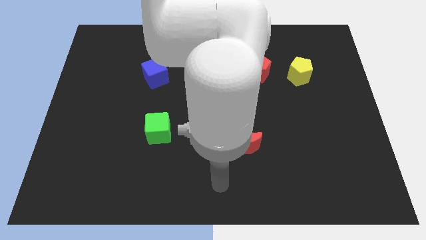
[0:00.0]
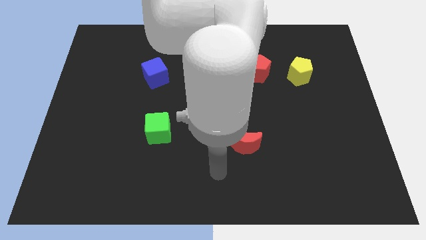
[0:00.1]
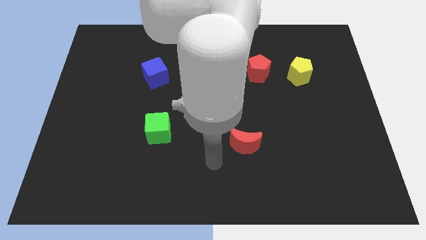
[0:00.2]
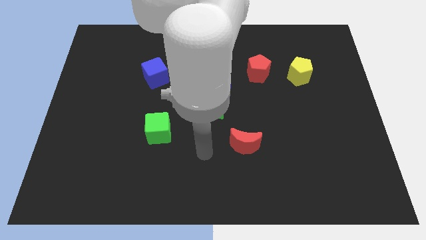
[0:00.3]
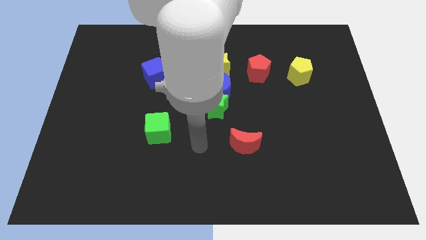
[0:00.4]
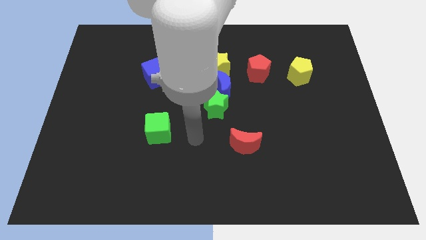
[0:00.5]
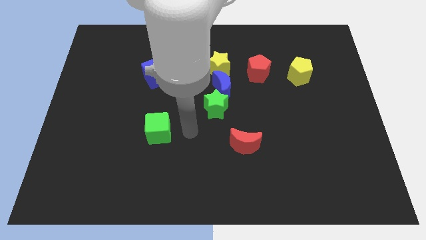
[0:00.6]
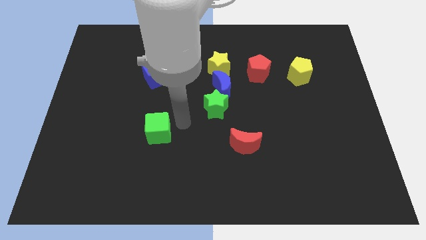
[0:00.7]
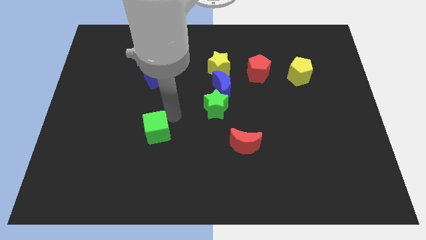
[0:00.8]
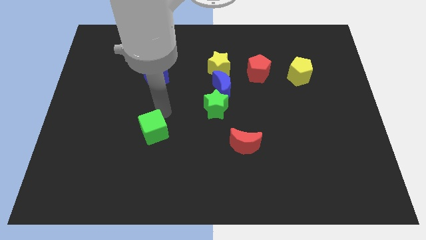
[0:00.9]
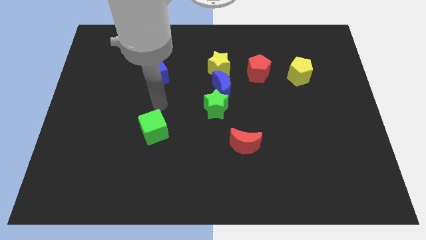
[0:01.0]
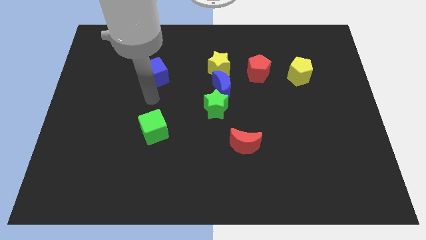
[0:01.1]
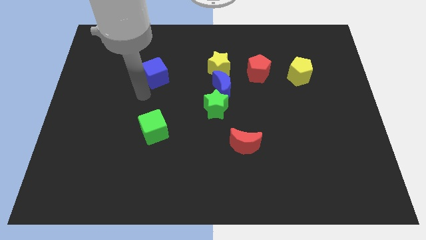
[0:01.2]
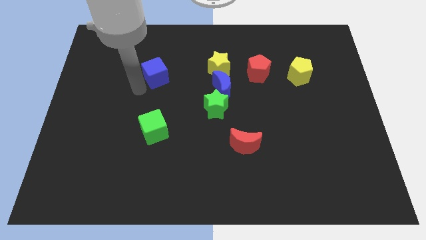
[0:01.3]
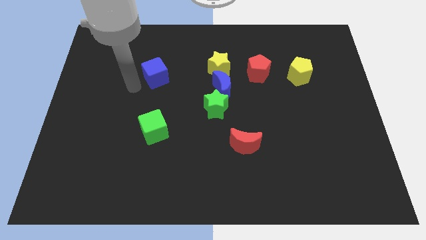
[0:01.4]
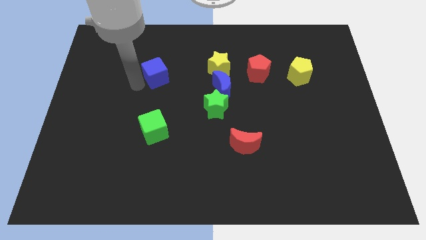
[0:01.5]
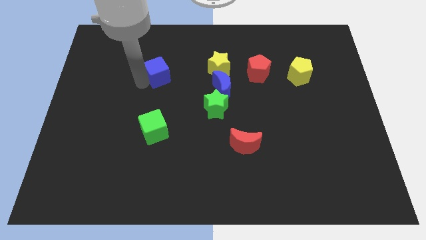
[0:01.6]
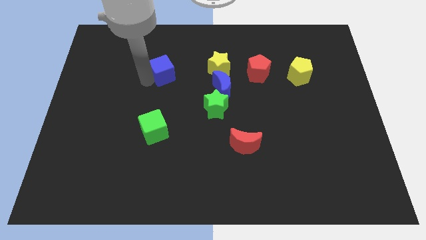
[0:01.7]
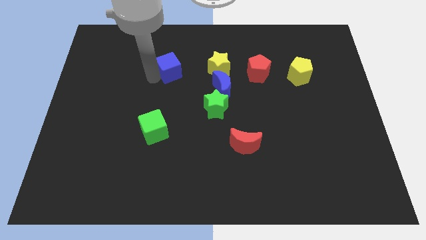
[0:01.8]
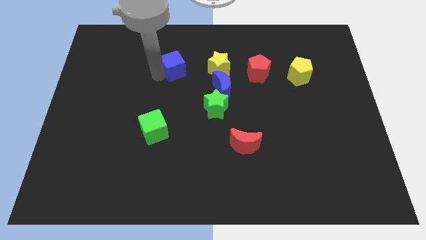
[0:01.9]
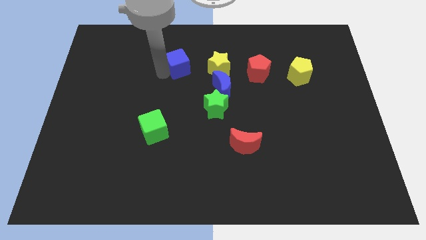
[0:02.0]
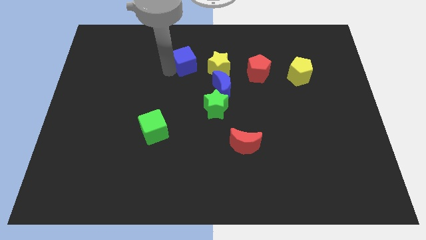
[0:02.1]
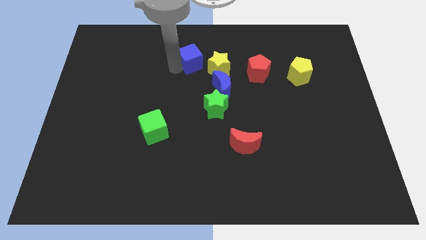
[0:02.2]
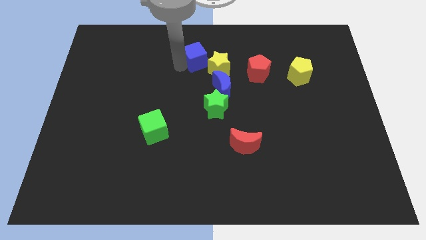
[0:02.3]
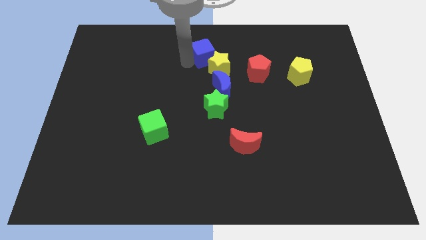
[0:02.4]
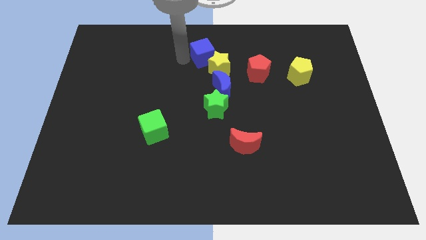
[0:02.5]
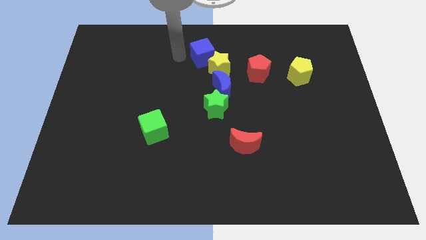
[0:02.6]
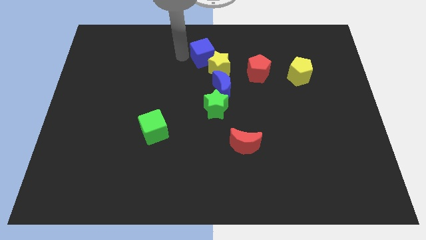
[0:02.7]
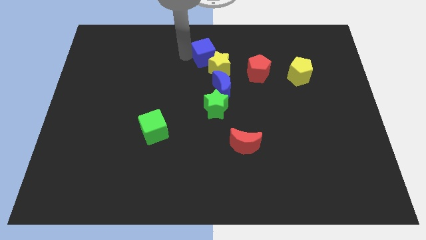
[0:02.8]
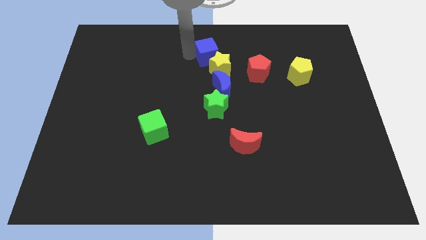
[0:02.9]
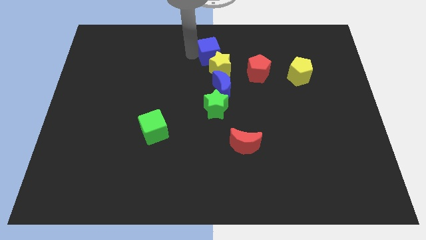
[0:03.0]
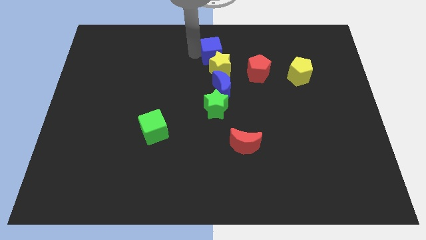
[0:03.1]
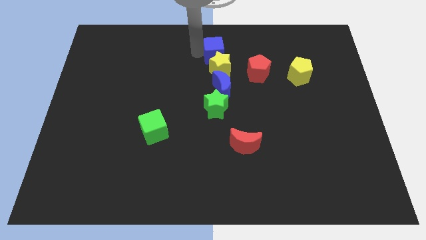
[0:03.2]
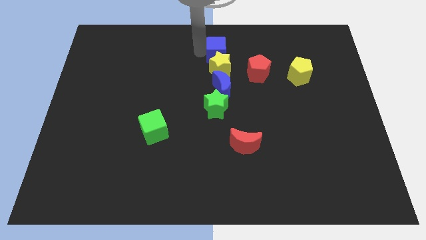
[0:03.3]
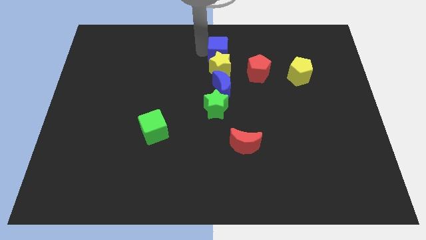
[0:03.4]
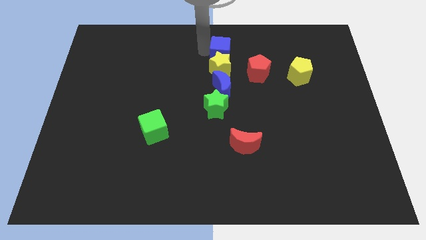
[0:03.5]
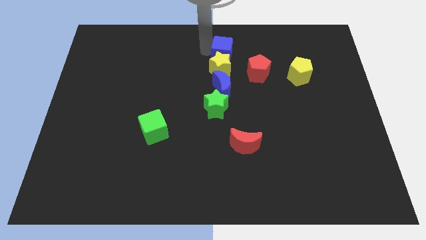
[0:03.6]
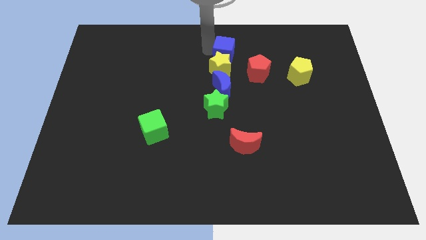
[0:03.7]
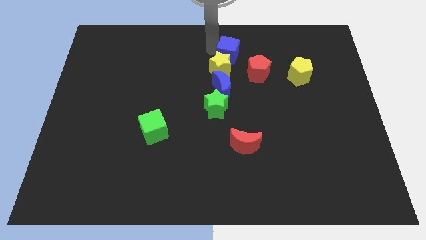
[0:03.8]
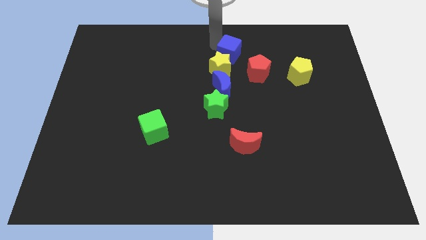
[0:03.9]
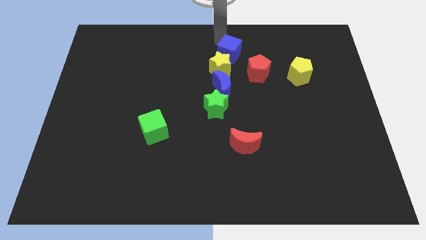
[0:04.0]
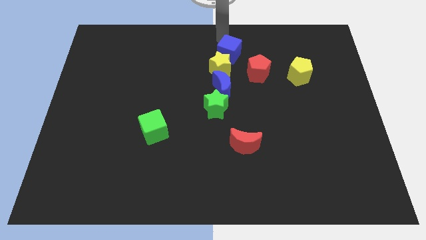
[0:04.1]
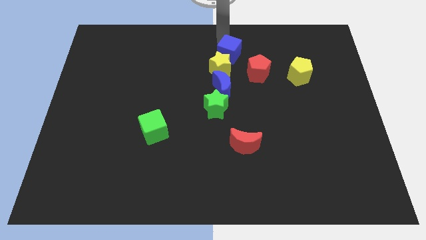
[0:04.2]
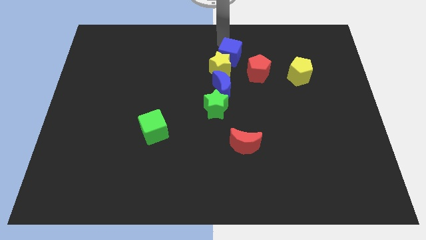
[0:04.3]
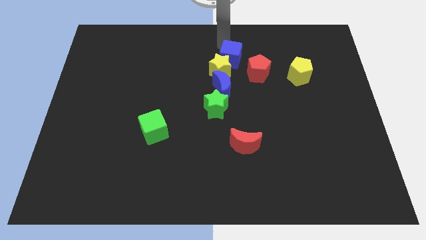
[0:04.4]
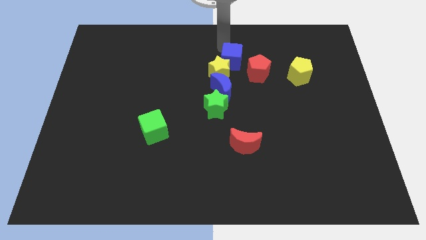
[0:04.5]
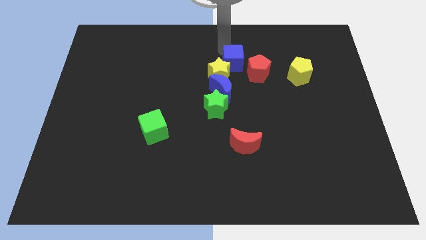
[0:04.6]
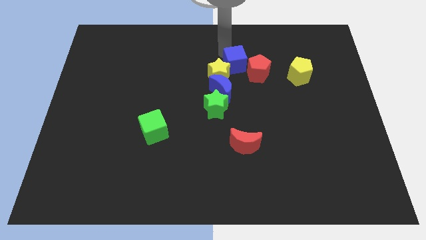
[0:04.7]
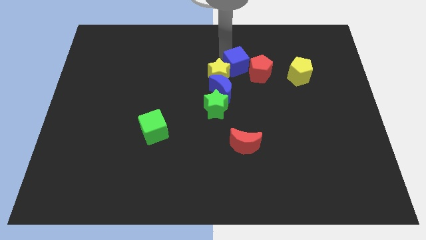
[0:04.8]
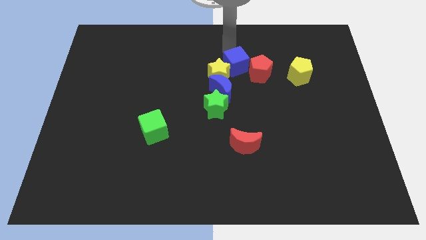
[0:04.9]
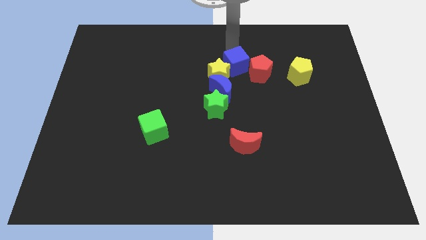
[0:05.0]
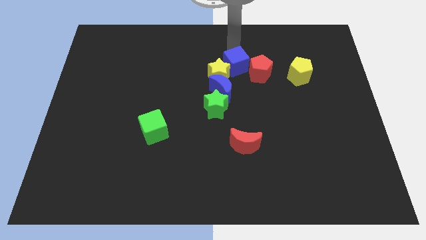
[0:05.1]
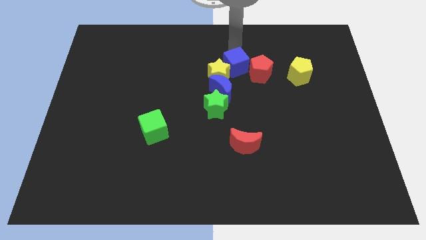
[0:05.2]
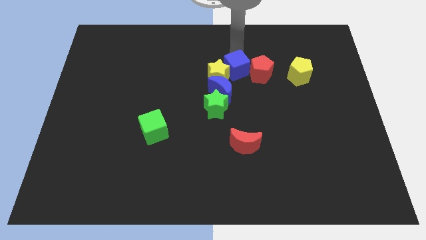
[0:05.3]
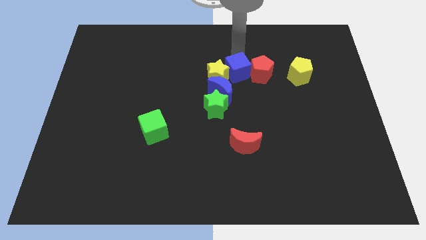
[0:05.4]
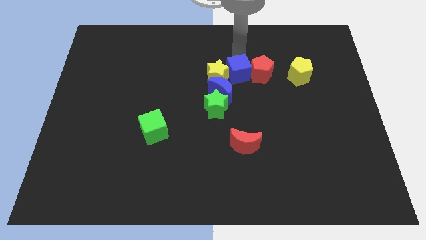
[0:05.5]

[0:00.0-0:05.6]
put the blue cube to the bottom right of the yellow star

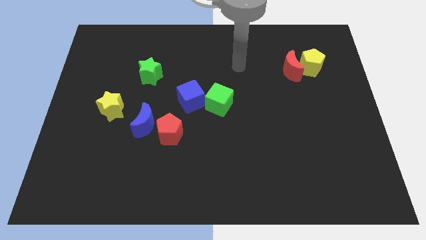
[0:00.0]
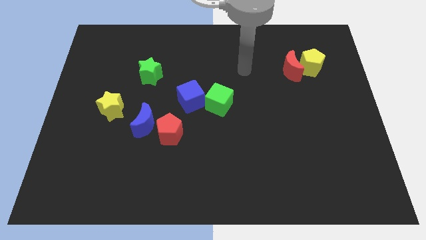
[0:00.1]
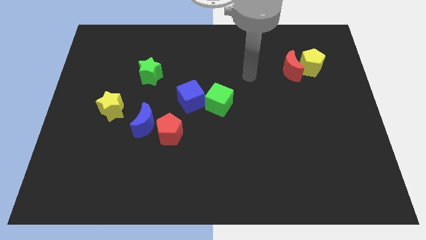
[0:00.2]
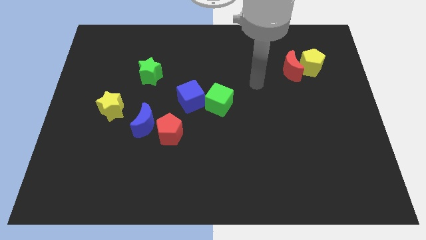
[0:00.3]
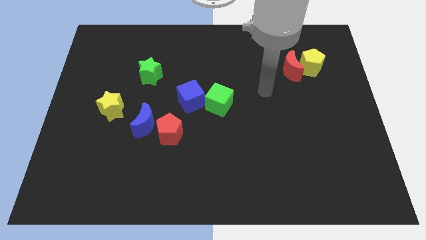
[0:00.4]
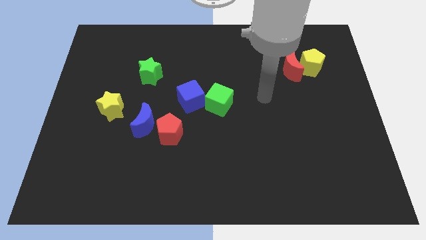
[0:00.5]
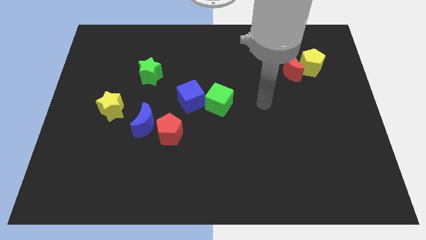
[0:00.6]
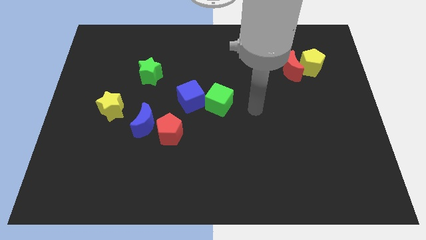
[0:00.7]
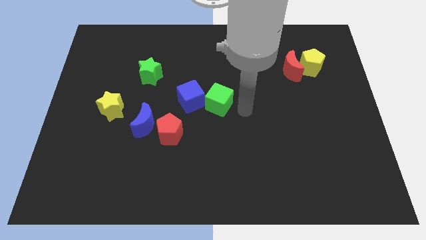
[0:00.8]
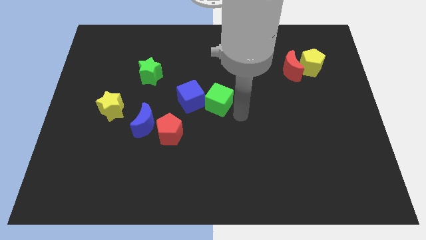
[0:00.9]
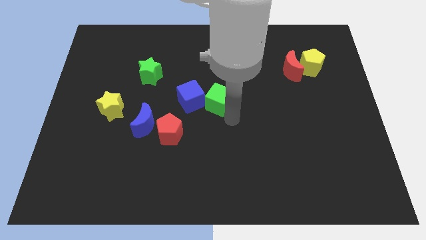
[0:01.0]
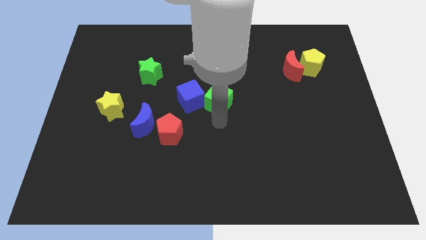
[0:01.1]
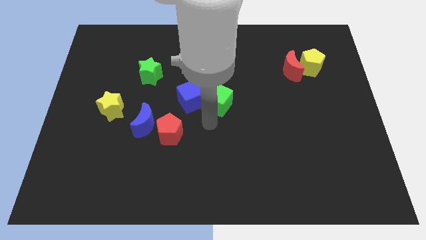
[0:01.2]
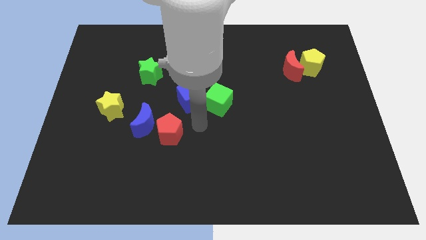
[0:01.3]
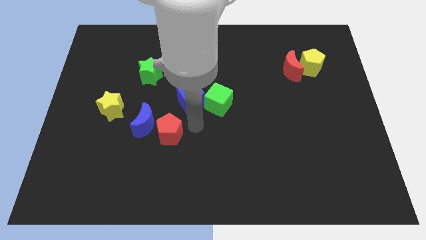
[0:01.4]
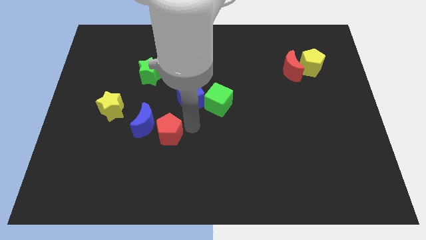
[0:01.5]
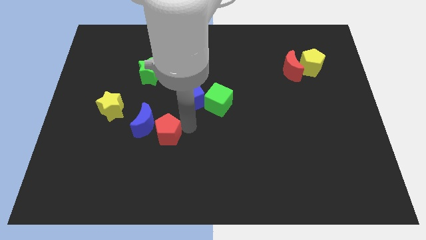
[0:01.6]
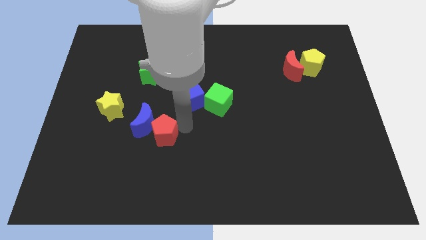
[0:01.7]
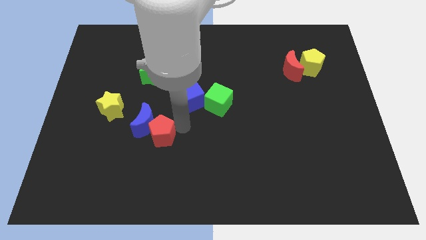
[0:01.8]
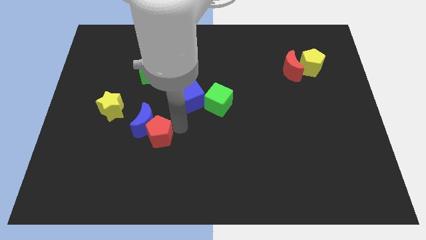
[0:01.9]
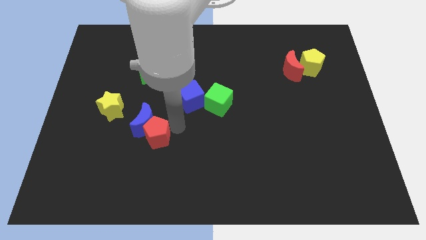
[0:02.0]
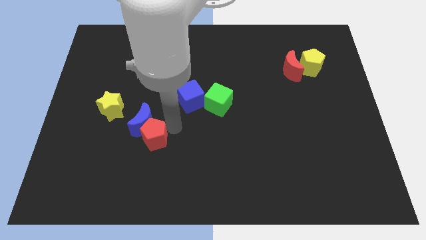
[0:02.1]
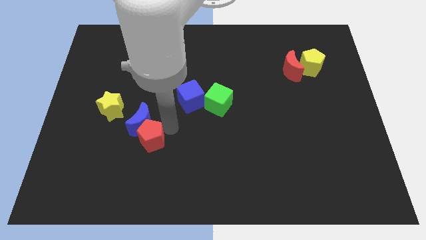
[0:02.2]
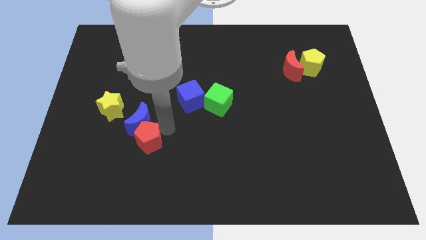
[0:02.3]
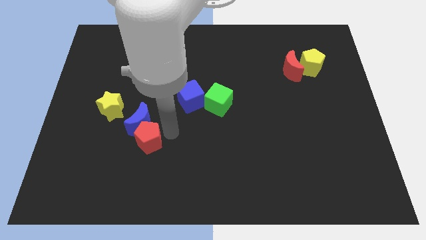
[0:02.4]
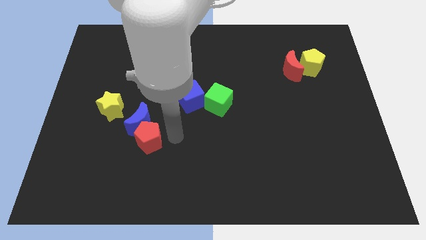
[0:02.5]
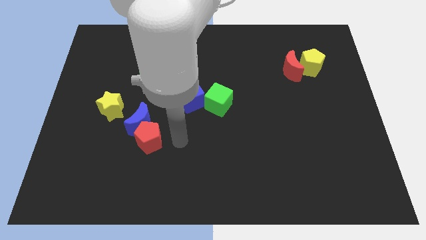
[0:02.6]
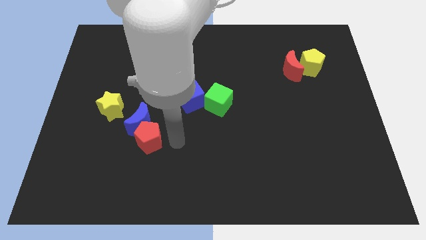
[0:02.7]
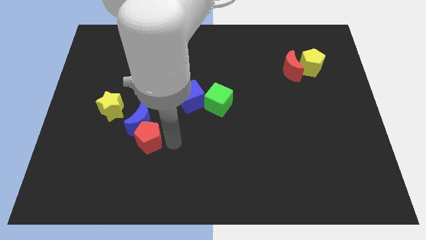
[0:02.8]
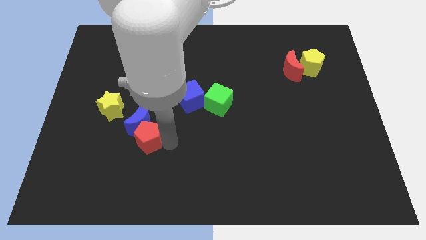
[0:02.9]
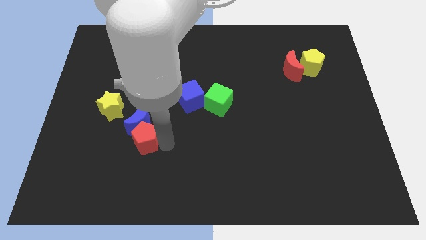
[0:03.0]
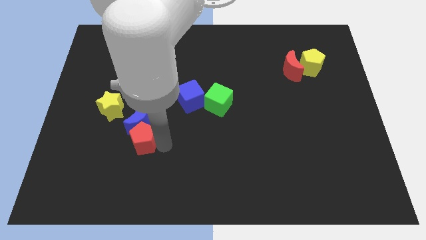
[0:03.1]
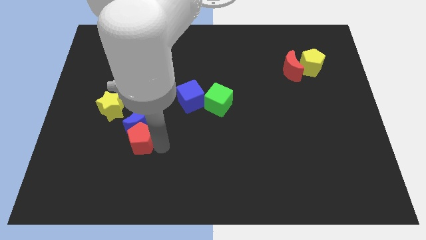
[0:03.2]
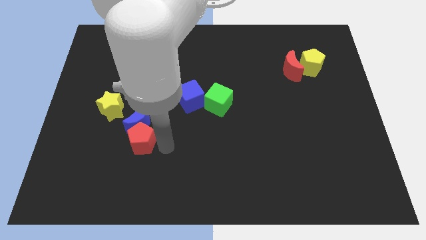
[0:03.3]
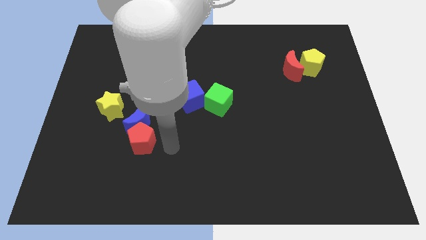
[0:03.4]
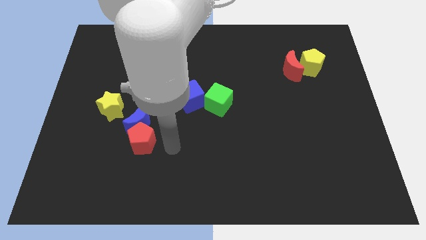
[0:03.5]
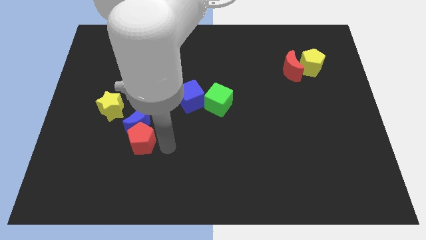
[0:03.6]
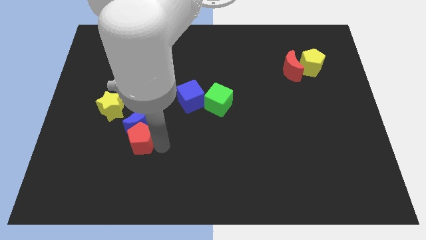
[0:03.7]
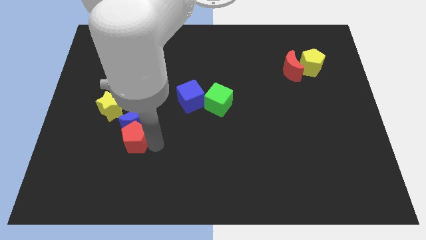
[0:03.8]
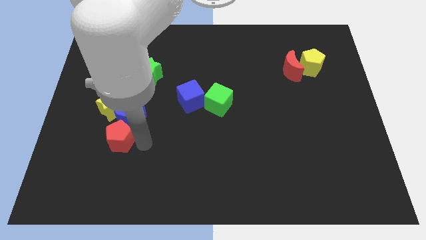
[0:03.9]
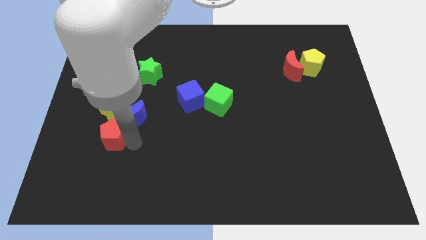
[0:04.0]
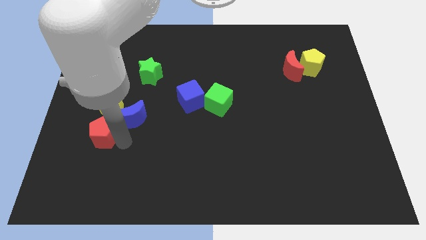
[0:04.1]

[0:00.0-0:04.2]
push the red pentagon to the left of the blue moon
